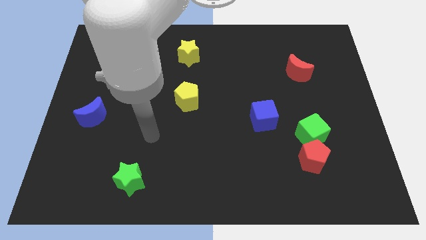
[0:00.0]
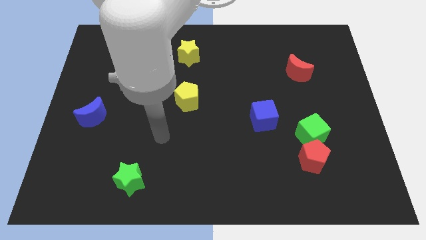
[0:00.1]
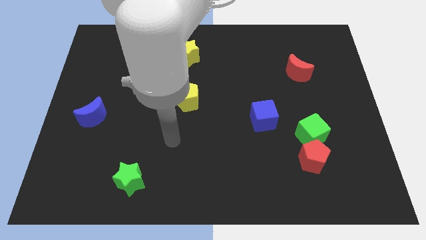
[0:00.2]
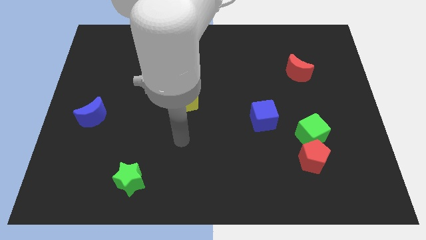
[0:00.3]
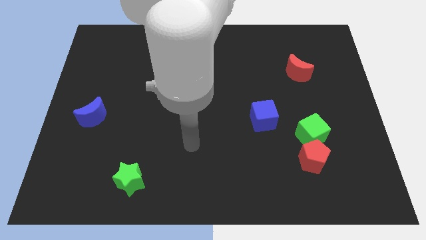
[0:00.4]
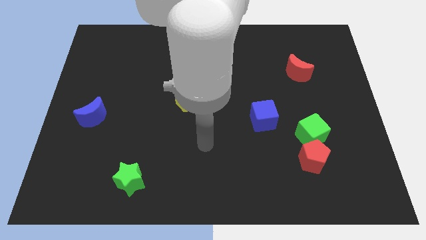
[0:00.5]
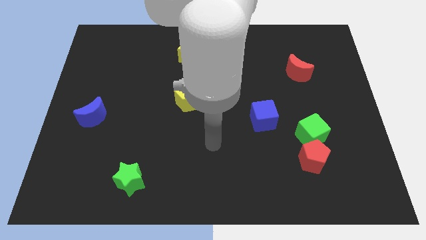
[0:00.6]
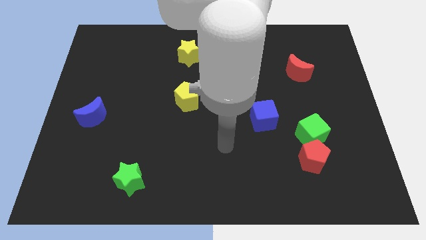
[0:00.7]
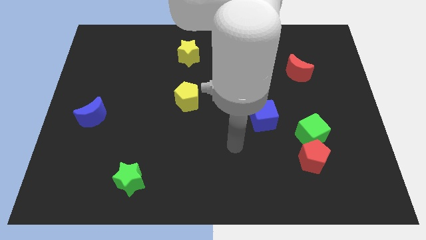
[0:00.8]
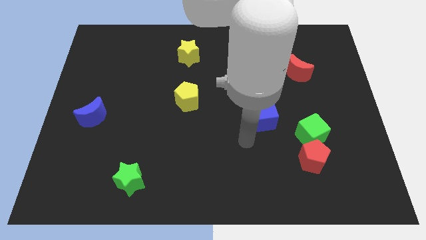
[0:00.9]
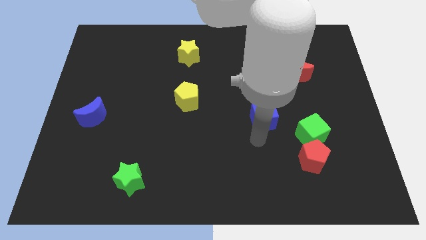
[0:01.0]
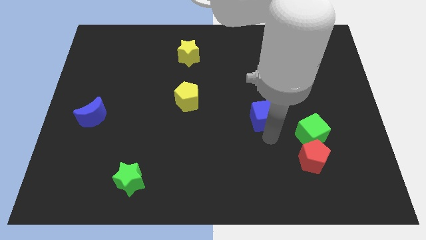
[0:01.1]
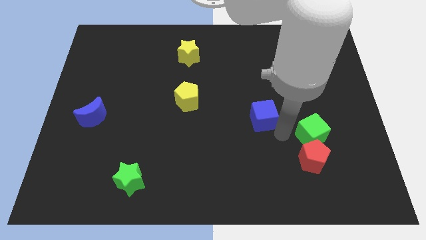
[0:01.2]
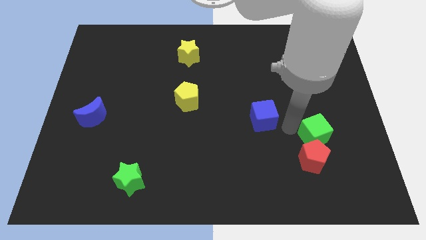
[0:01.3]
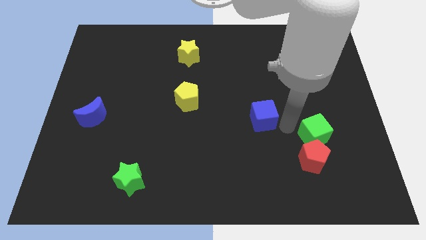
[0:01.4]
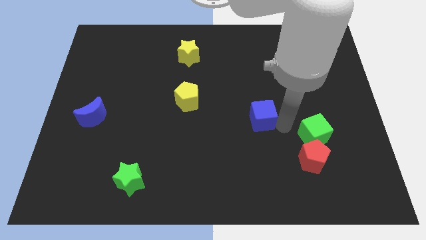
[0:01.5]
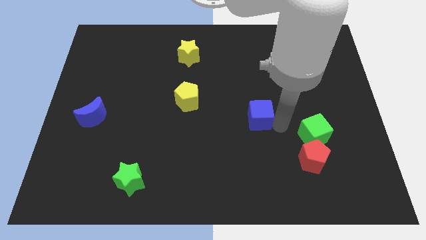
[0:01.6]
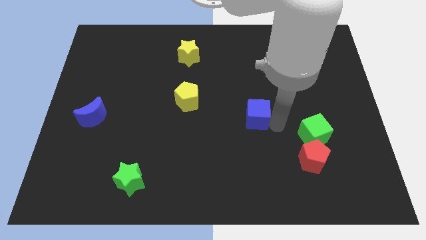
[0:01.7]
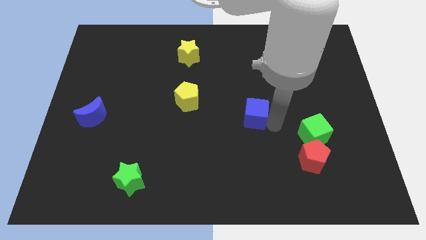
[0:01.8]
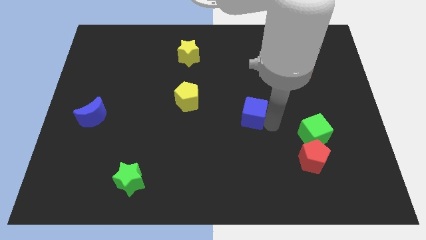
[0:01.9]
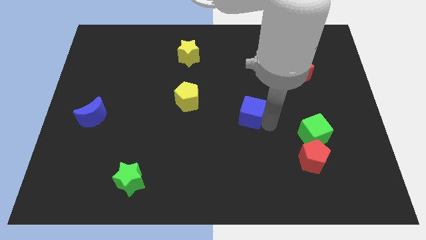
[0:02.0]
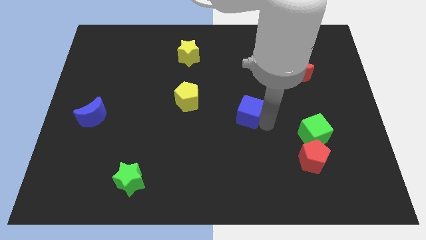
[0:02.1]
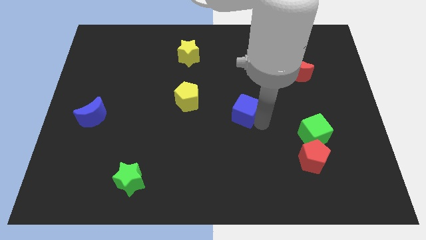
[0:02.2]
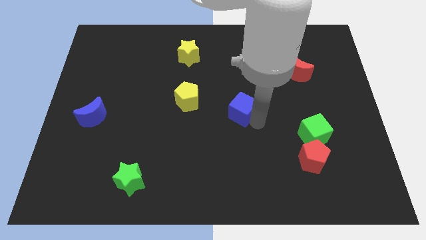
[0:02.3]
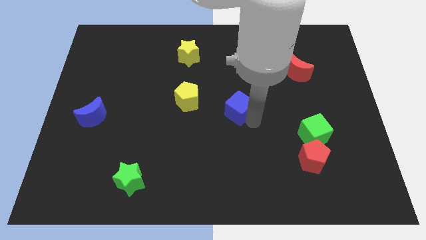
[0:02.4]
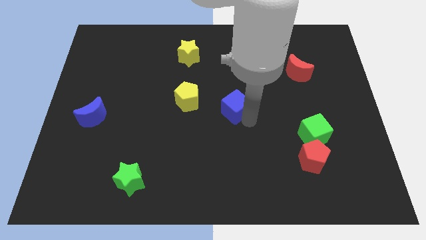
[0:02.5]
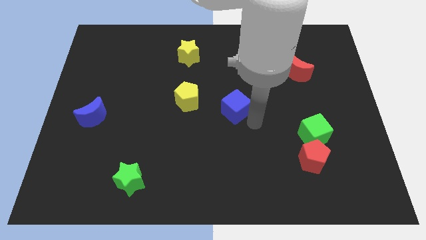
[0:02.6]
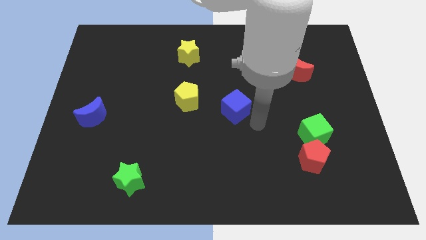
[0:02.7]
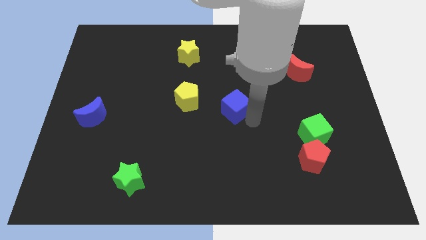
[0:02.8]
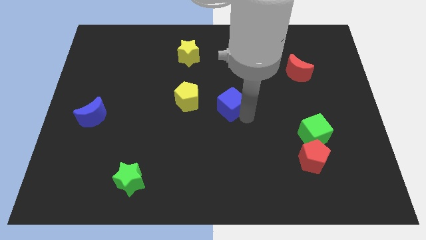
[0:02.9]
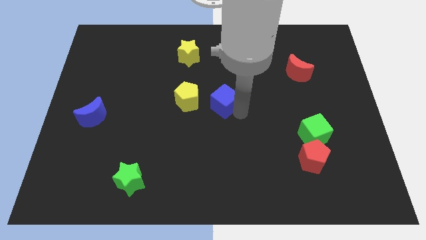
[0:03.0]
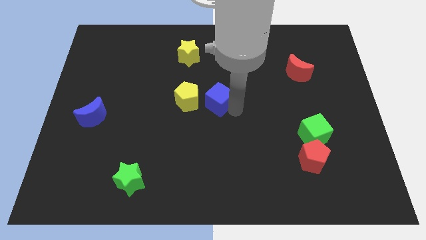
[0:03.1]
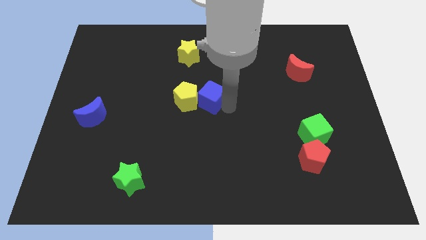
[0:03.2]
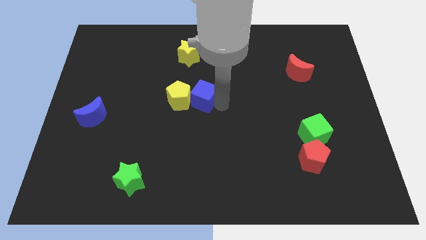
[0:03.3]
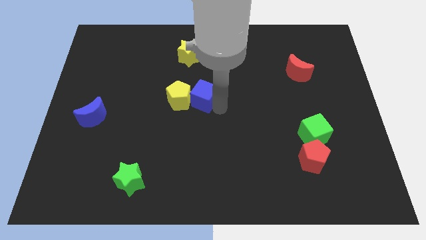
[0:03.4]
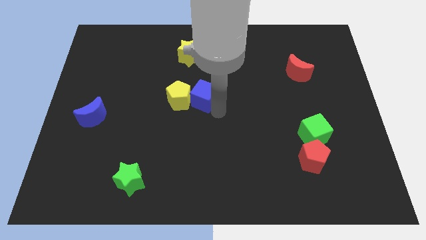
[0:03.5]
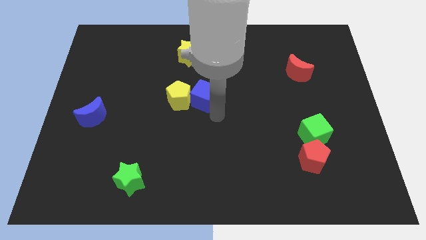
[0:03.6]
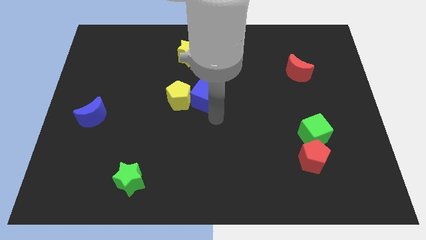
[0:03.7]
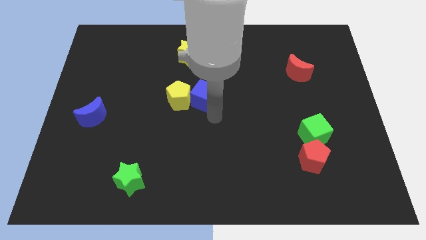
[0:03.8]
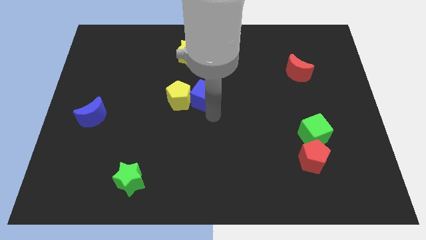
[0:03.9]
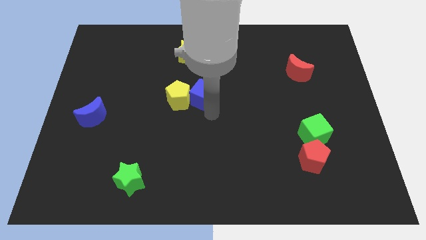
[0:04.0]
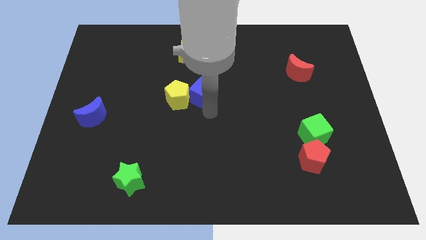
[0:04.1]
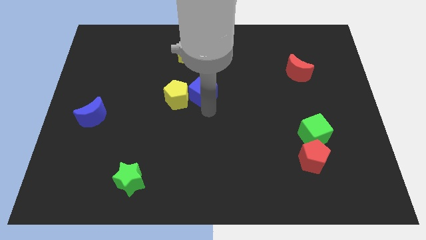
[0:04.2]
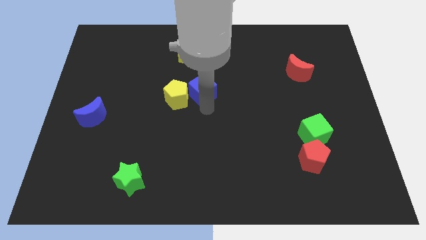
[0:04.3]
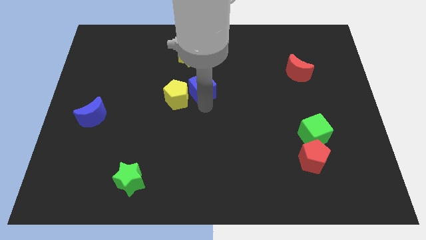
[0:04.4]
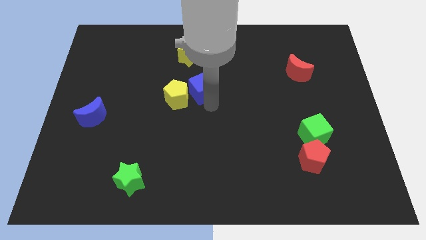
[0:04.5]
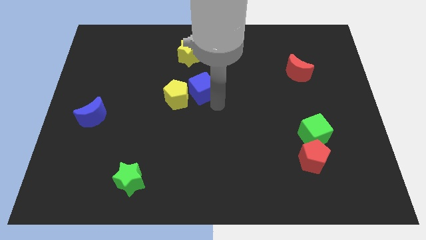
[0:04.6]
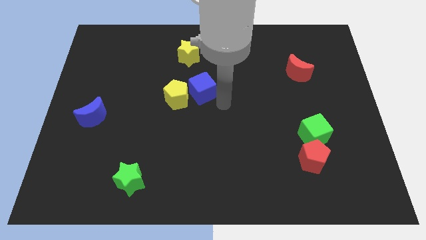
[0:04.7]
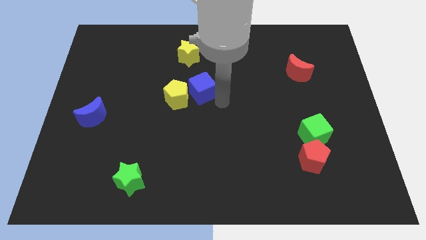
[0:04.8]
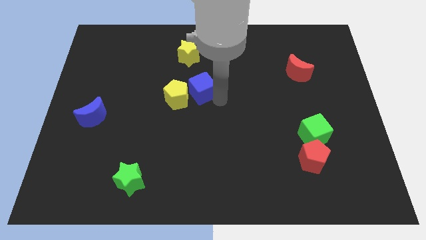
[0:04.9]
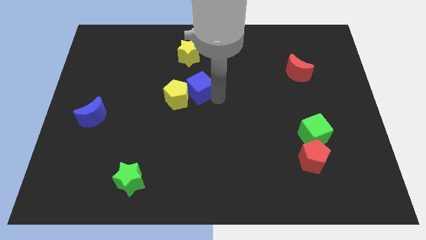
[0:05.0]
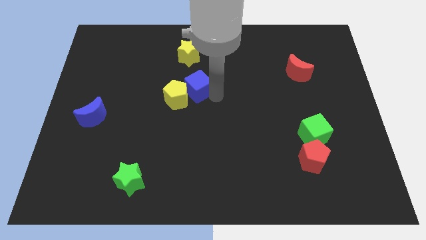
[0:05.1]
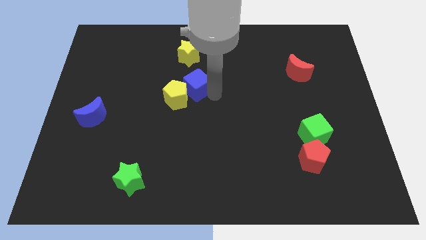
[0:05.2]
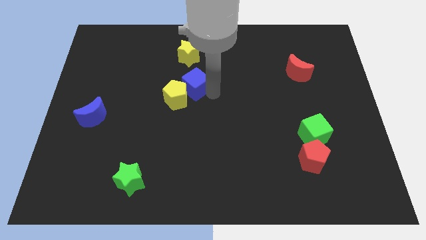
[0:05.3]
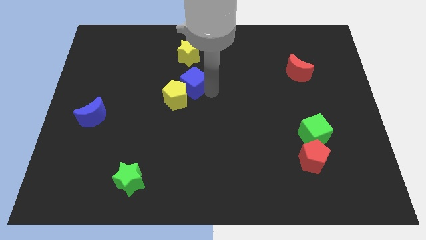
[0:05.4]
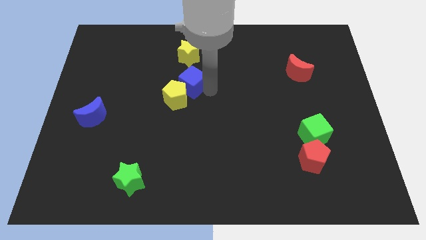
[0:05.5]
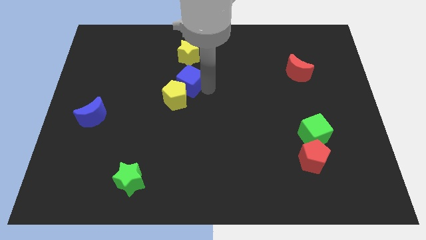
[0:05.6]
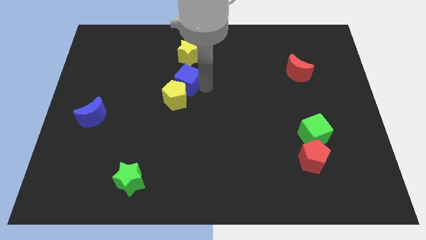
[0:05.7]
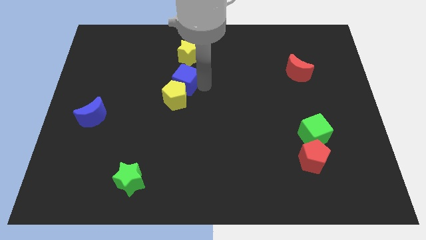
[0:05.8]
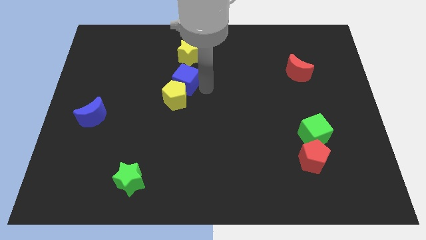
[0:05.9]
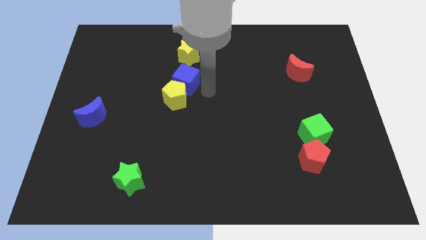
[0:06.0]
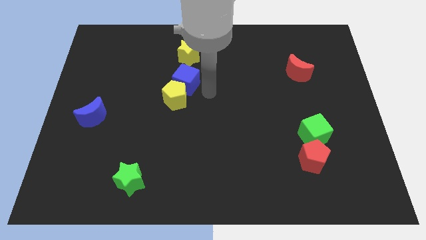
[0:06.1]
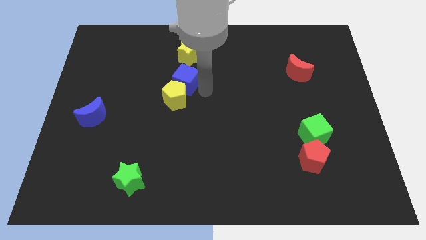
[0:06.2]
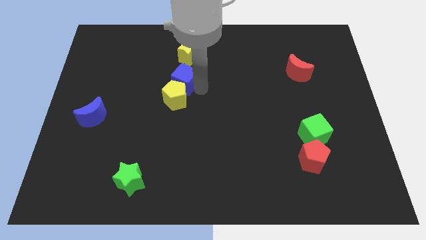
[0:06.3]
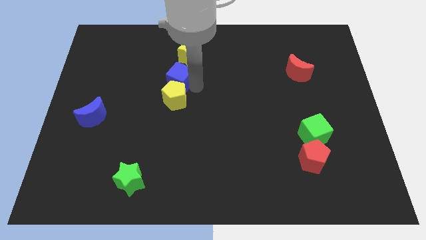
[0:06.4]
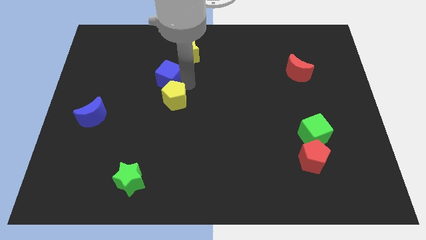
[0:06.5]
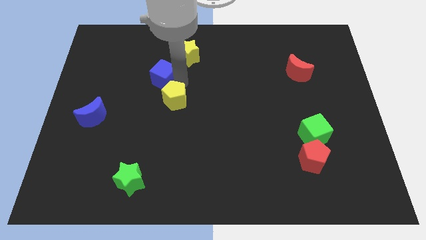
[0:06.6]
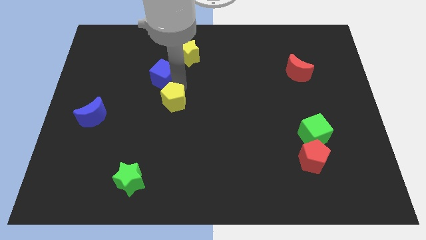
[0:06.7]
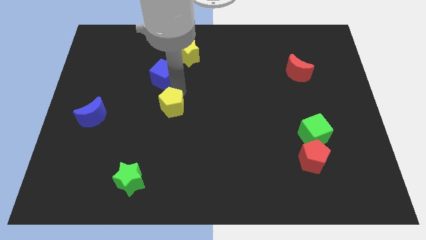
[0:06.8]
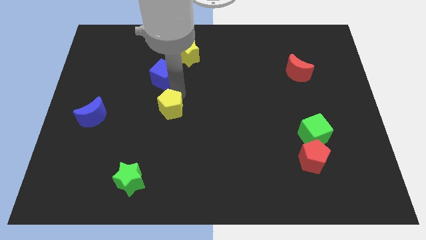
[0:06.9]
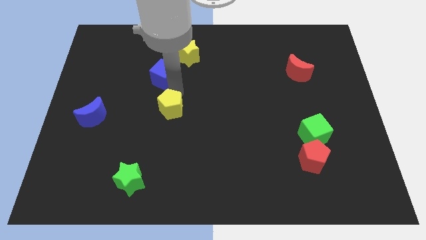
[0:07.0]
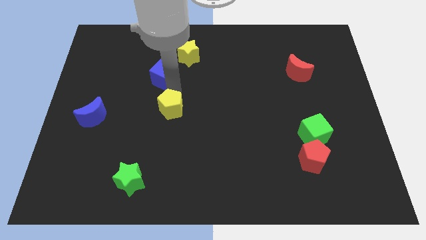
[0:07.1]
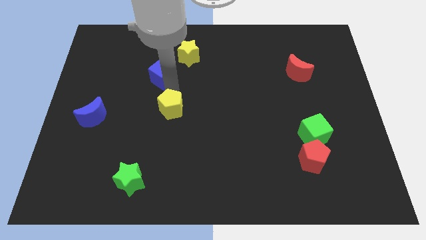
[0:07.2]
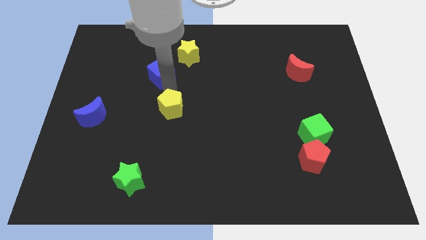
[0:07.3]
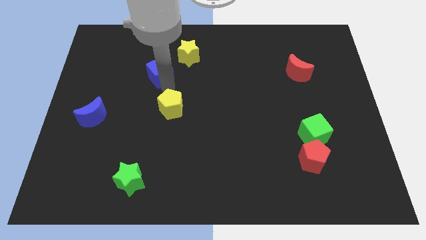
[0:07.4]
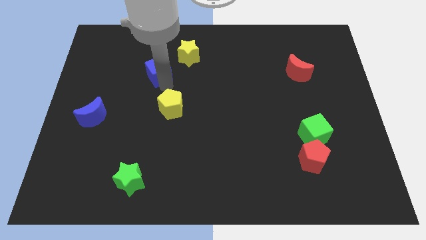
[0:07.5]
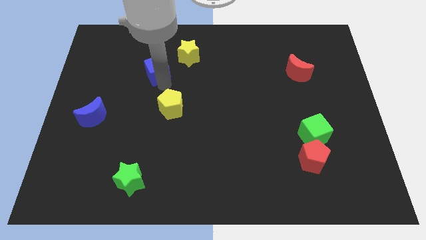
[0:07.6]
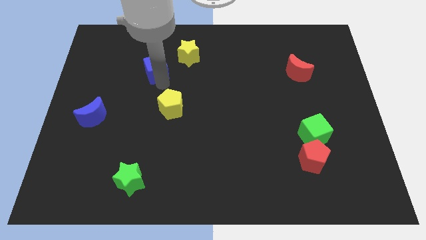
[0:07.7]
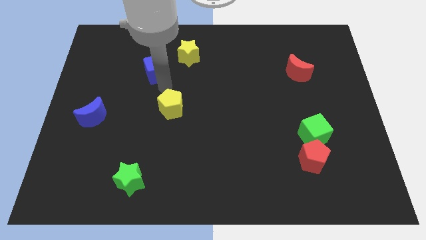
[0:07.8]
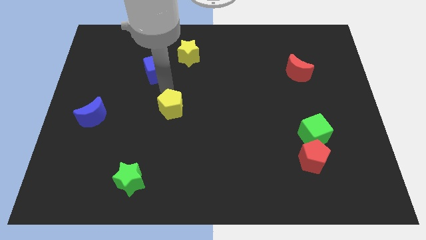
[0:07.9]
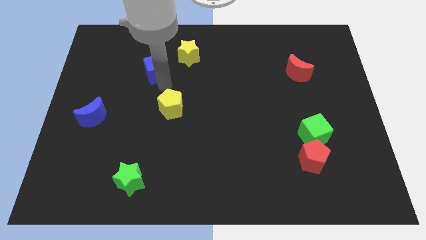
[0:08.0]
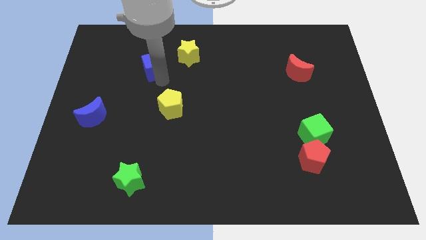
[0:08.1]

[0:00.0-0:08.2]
put the blue cube left of the yellow star

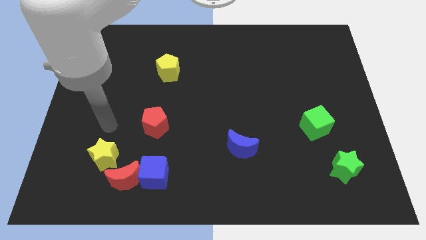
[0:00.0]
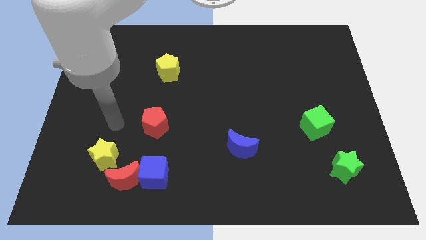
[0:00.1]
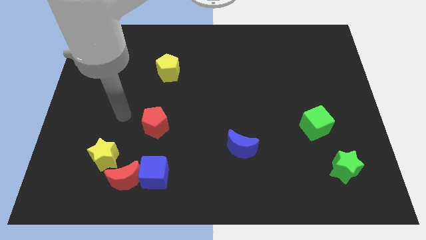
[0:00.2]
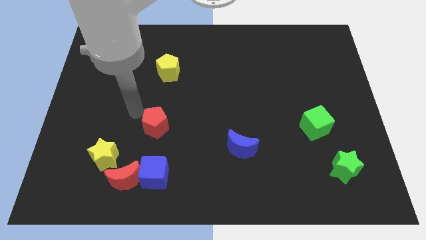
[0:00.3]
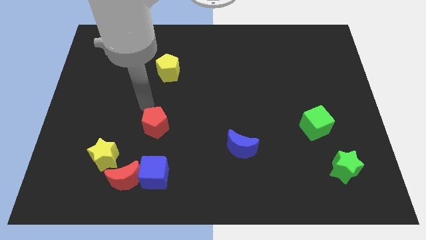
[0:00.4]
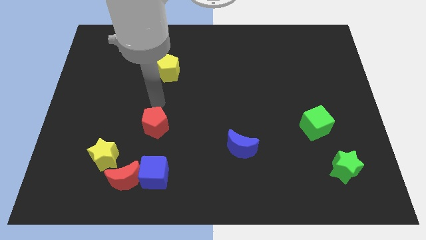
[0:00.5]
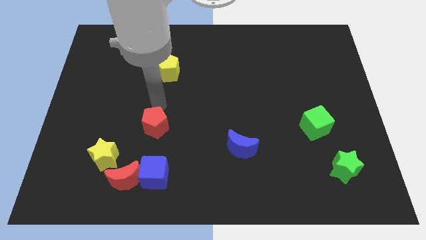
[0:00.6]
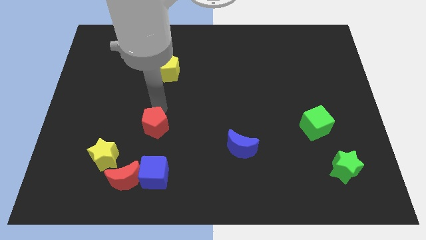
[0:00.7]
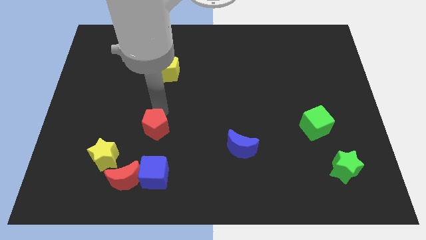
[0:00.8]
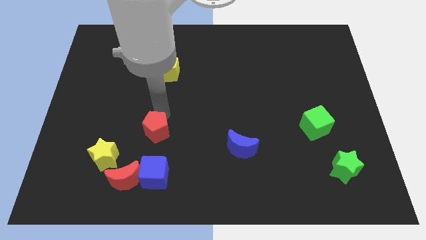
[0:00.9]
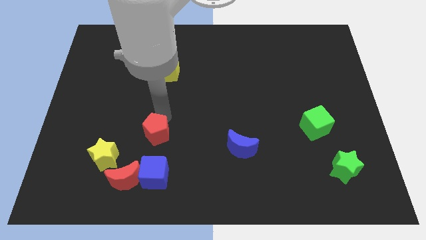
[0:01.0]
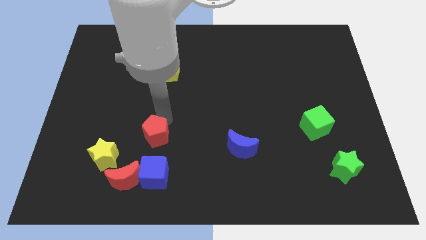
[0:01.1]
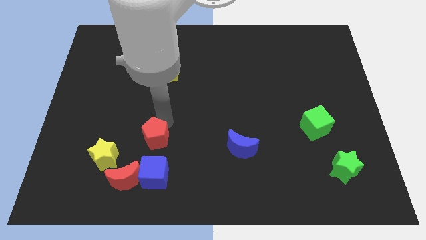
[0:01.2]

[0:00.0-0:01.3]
move the red pentagon to the top right of the red moon
